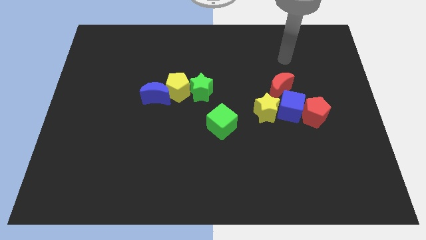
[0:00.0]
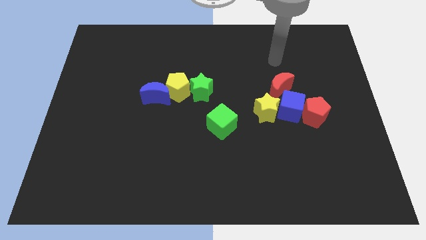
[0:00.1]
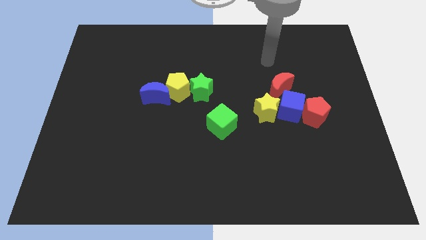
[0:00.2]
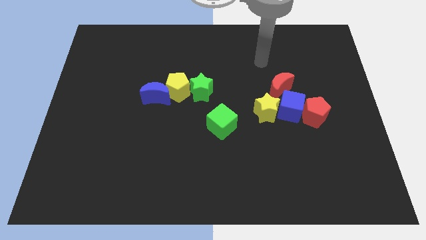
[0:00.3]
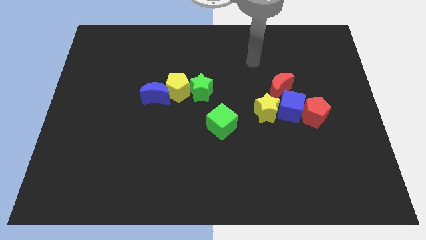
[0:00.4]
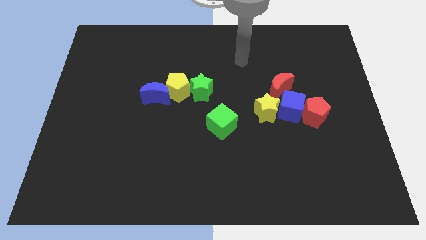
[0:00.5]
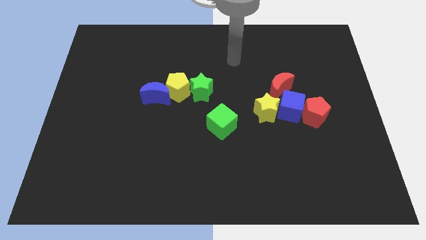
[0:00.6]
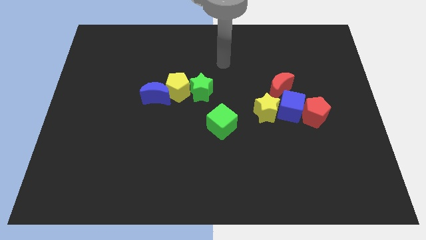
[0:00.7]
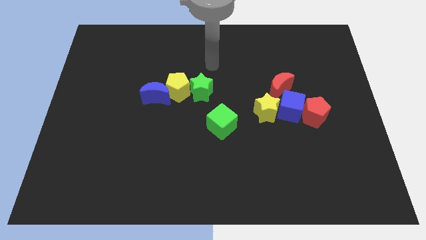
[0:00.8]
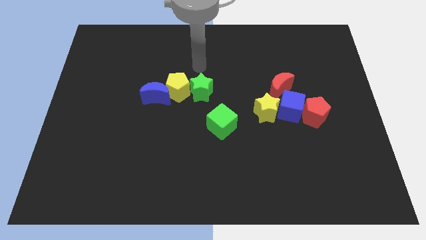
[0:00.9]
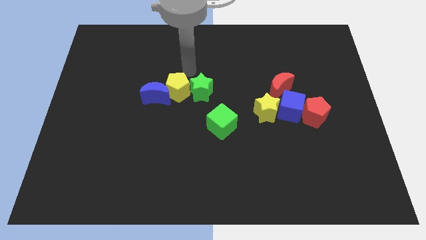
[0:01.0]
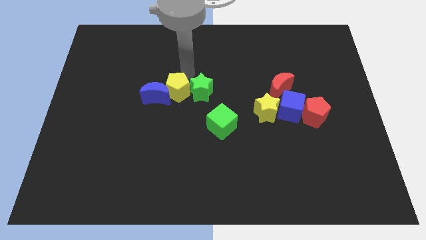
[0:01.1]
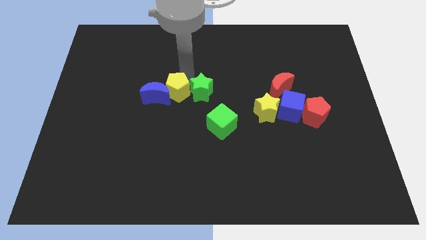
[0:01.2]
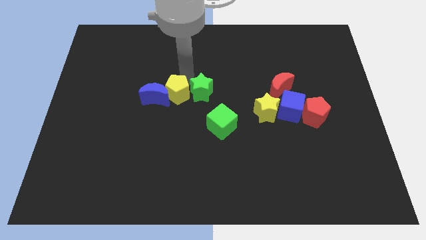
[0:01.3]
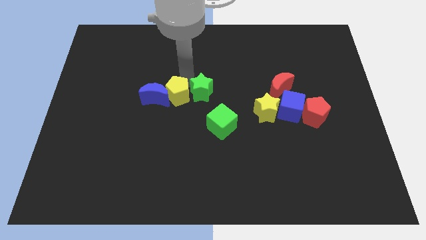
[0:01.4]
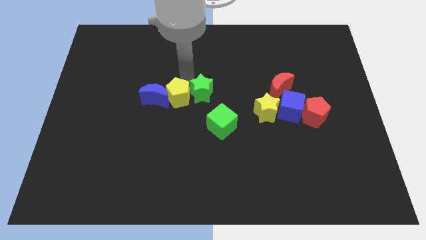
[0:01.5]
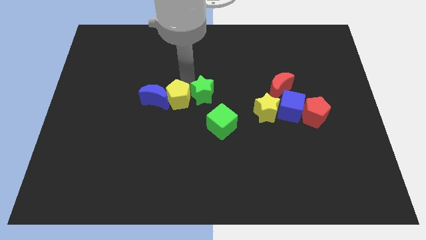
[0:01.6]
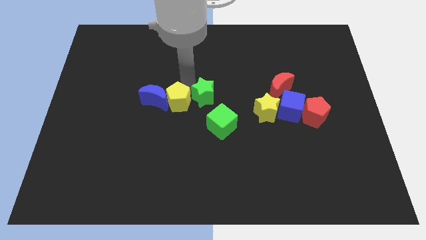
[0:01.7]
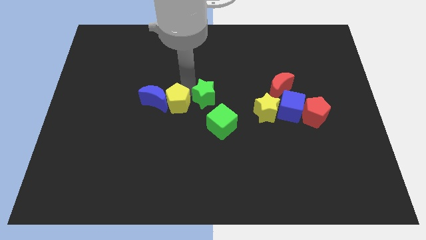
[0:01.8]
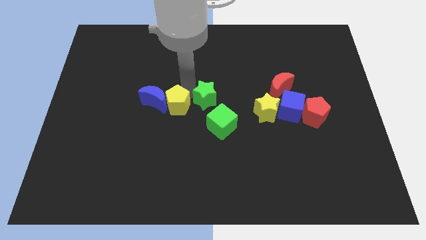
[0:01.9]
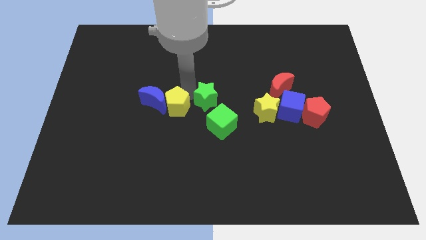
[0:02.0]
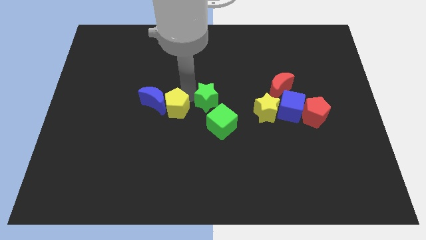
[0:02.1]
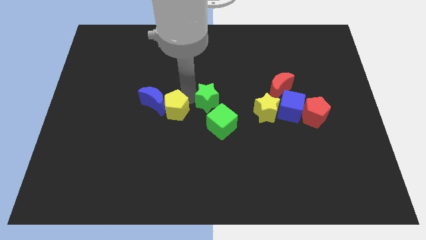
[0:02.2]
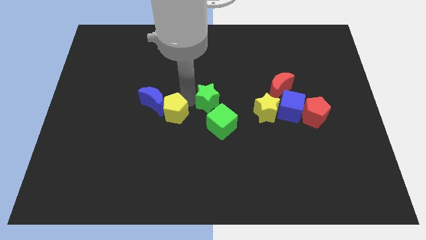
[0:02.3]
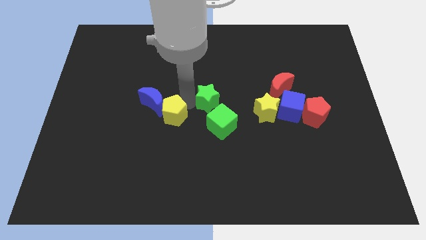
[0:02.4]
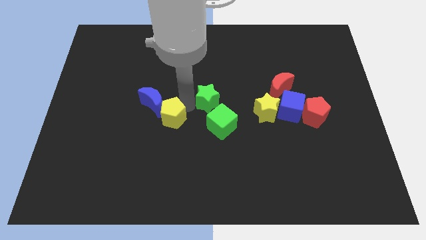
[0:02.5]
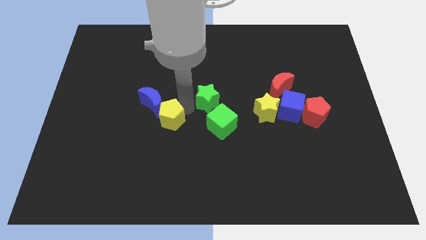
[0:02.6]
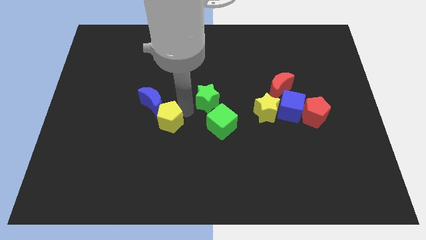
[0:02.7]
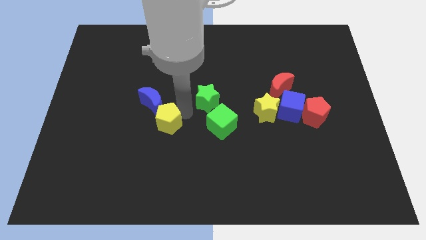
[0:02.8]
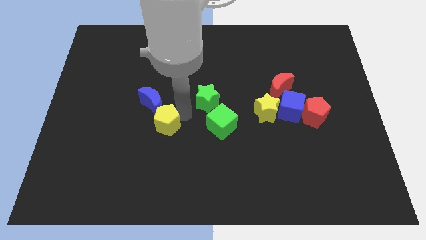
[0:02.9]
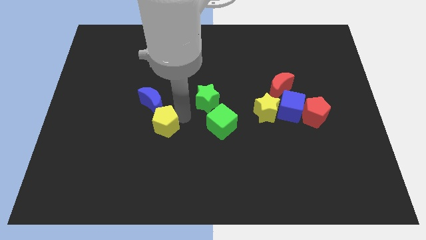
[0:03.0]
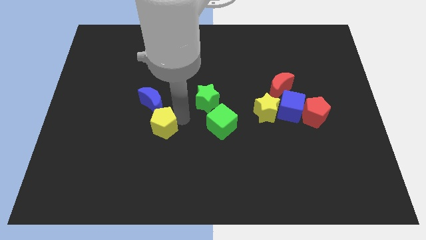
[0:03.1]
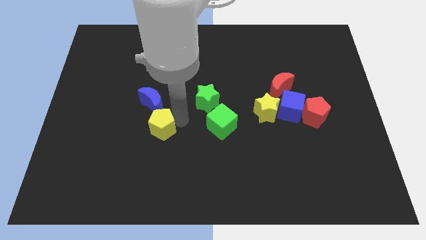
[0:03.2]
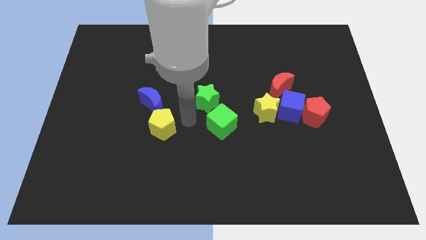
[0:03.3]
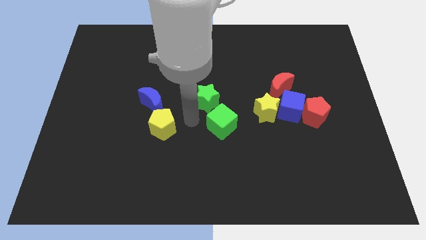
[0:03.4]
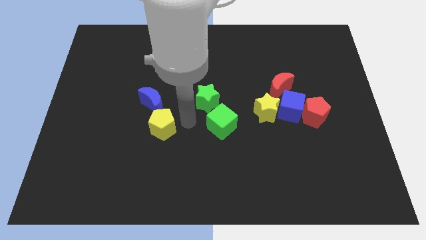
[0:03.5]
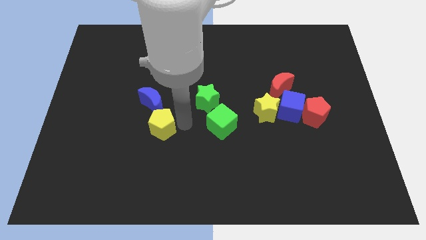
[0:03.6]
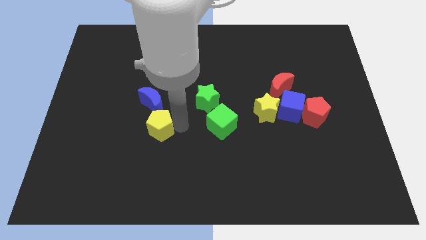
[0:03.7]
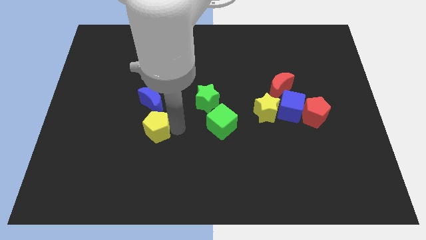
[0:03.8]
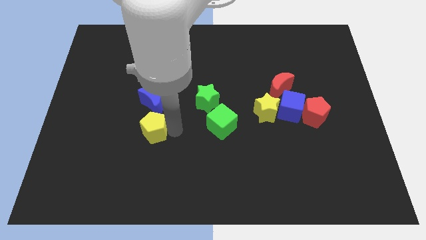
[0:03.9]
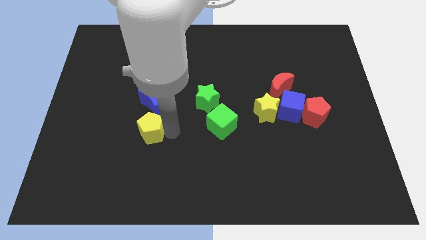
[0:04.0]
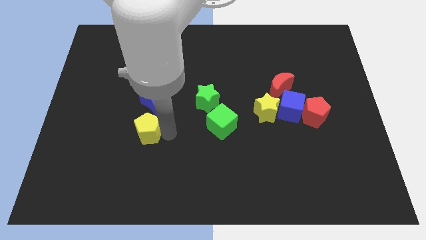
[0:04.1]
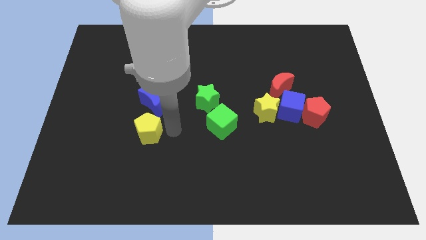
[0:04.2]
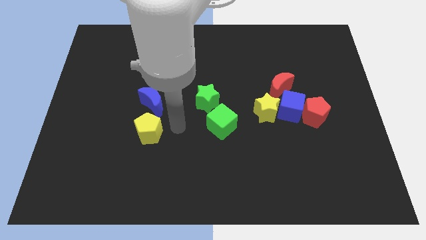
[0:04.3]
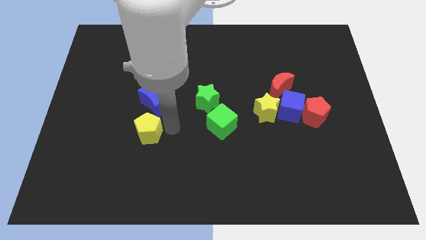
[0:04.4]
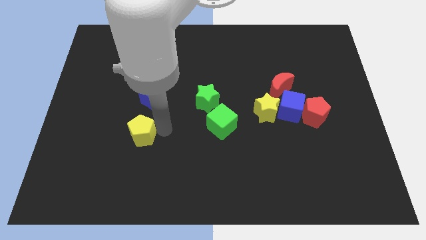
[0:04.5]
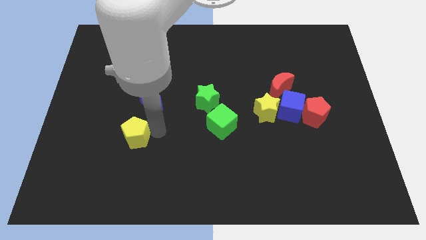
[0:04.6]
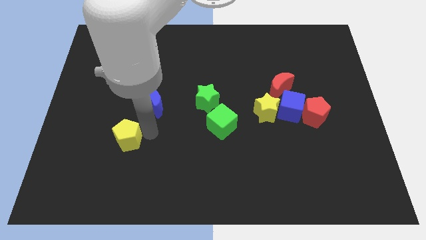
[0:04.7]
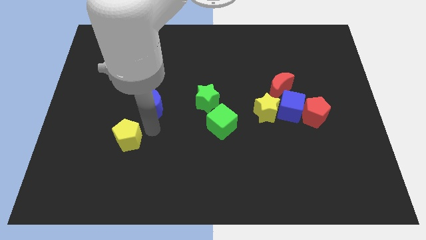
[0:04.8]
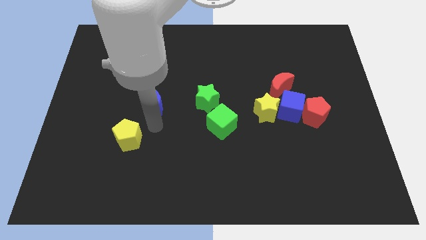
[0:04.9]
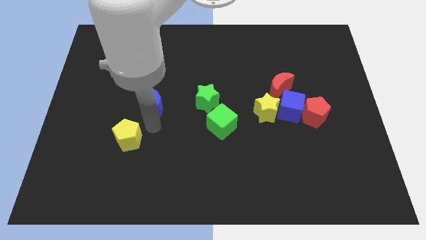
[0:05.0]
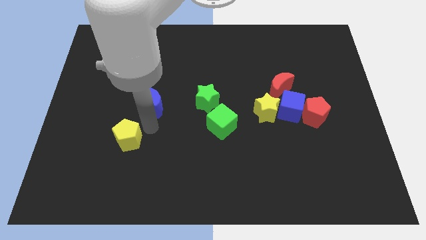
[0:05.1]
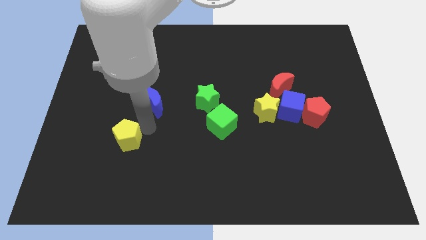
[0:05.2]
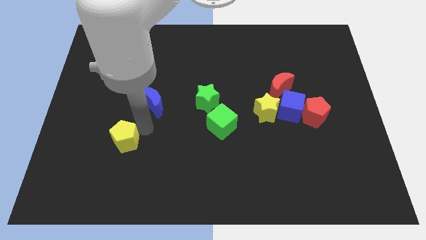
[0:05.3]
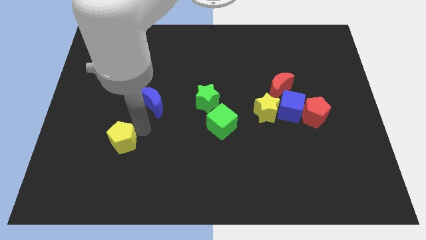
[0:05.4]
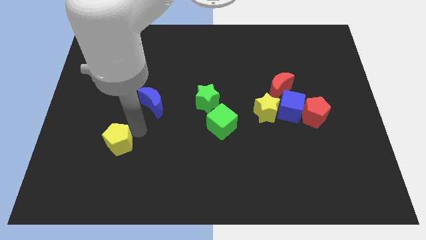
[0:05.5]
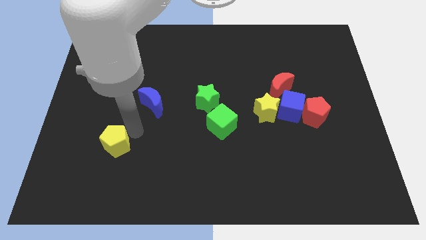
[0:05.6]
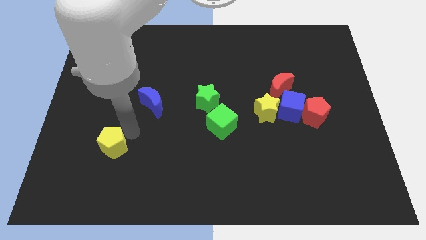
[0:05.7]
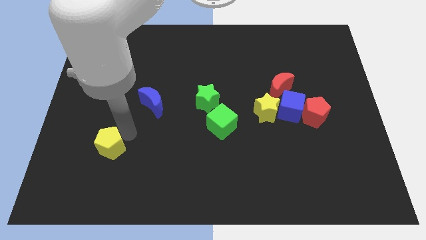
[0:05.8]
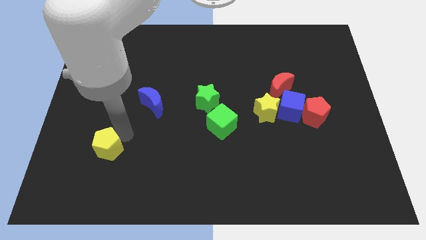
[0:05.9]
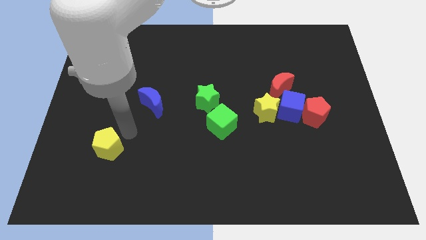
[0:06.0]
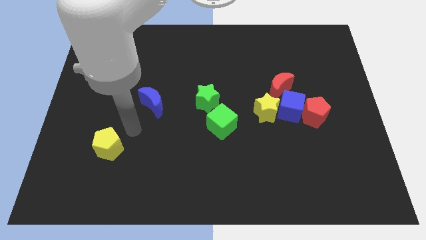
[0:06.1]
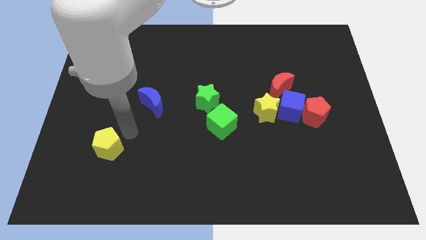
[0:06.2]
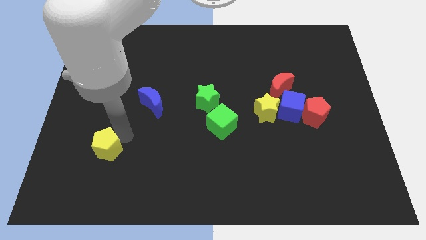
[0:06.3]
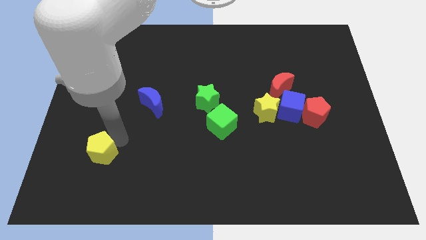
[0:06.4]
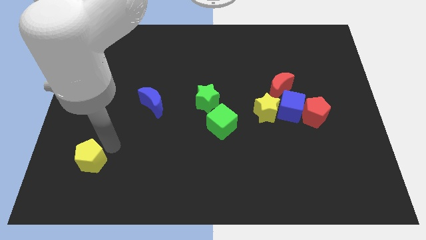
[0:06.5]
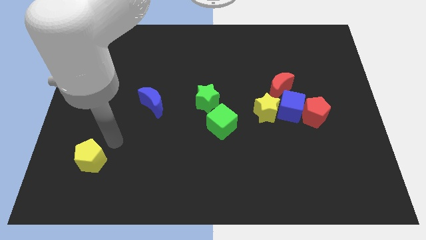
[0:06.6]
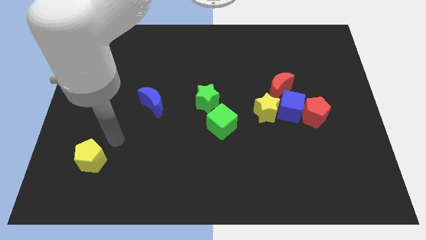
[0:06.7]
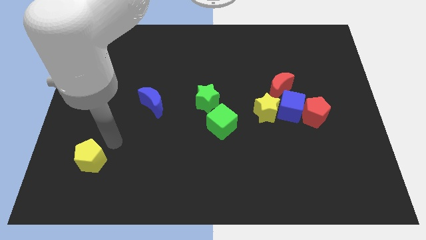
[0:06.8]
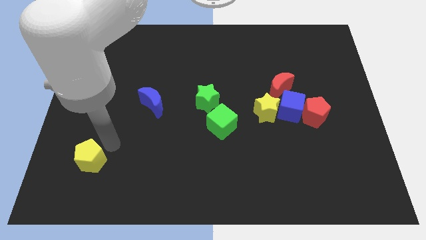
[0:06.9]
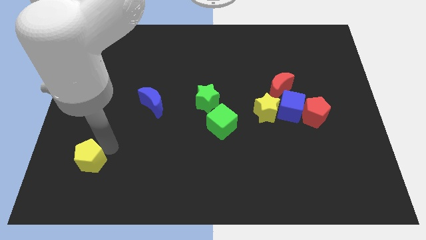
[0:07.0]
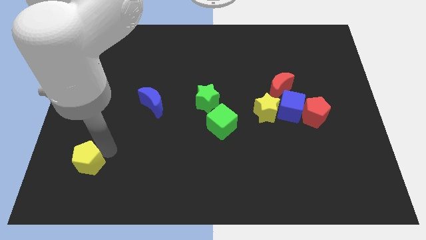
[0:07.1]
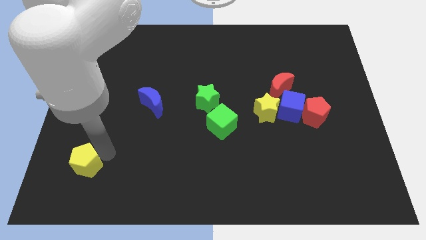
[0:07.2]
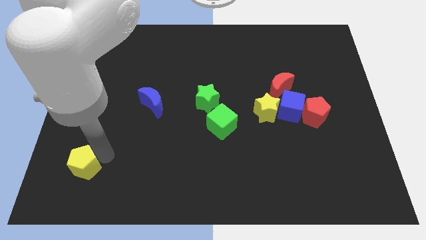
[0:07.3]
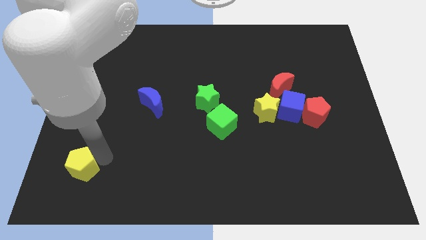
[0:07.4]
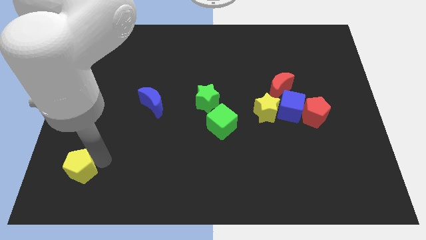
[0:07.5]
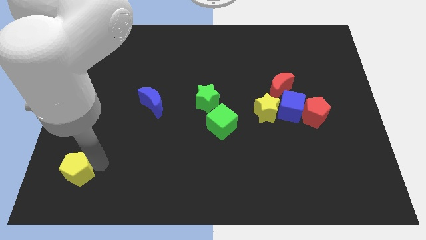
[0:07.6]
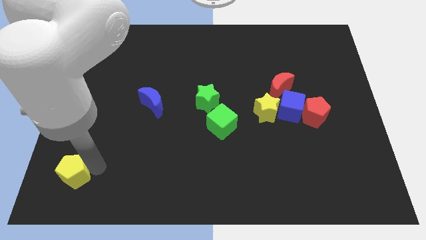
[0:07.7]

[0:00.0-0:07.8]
push the yellow pentagon to the bottom left

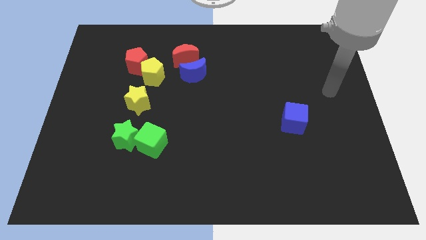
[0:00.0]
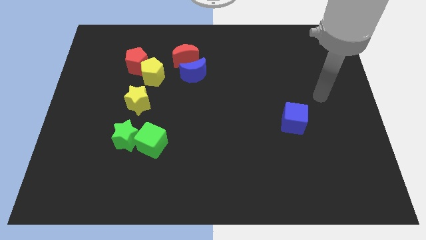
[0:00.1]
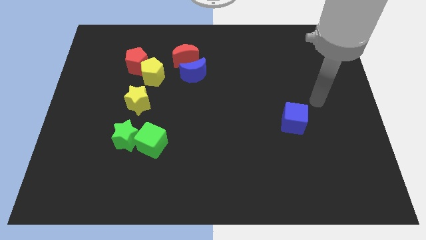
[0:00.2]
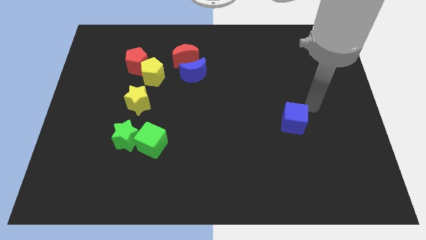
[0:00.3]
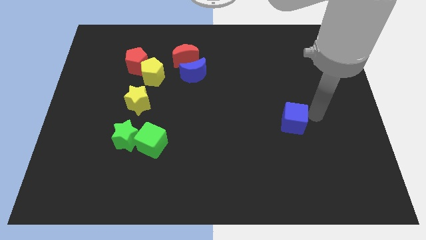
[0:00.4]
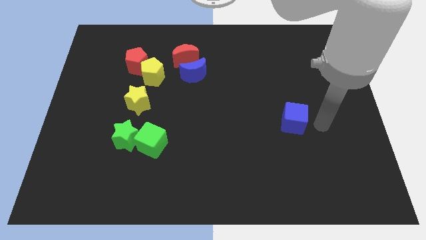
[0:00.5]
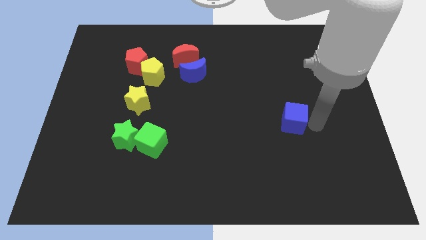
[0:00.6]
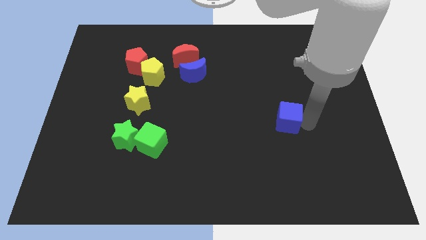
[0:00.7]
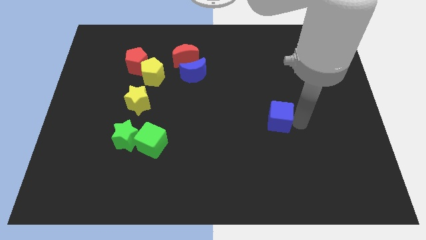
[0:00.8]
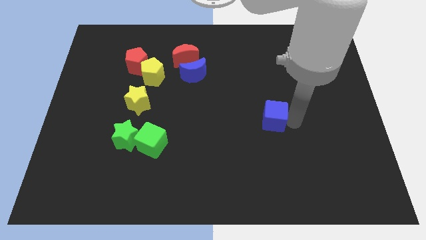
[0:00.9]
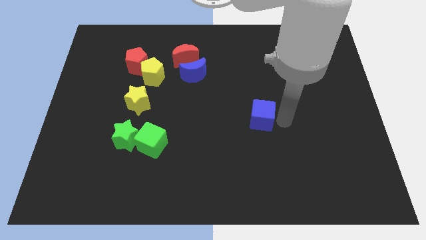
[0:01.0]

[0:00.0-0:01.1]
put the blue cube to the center
